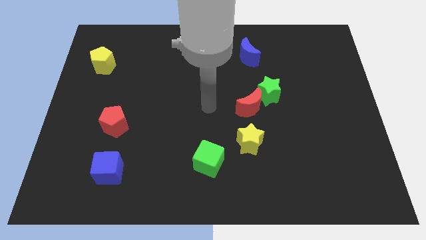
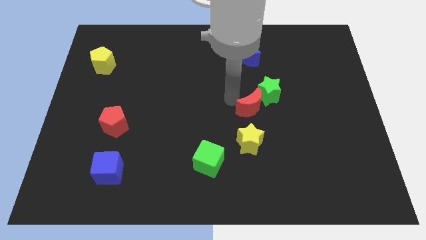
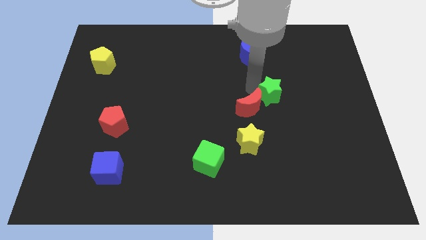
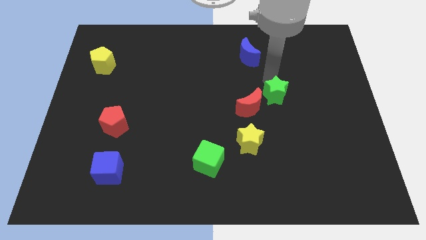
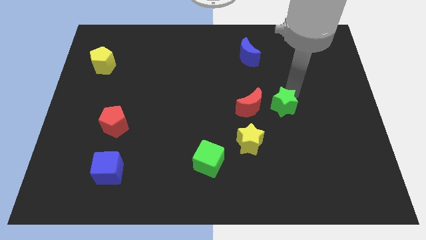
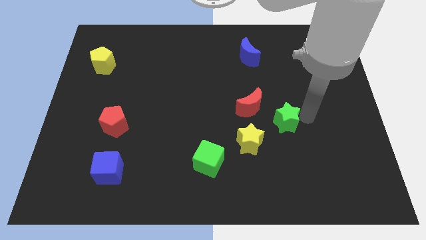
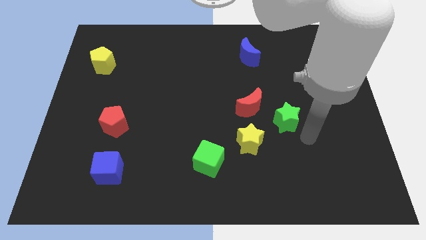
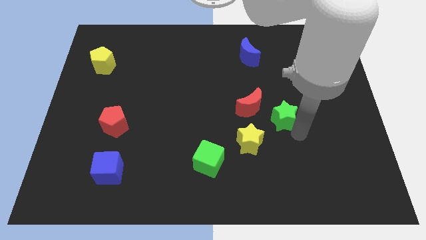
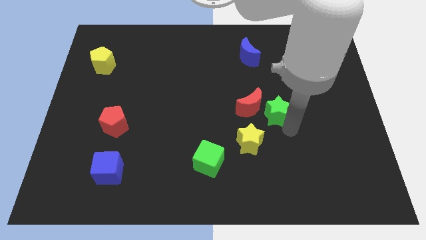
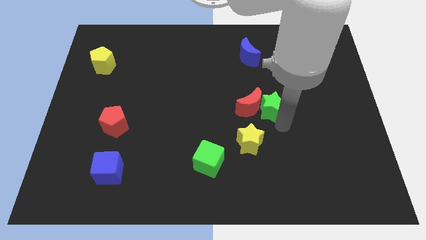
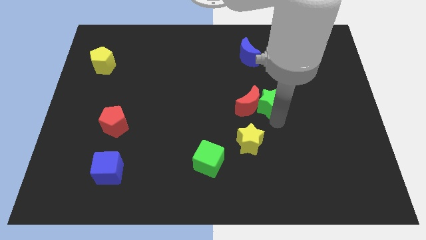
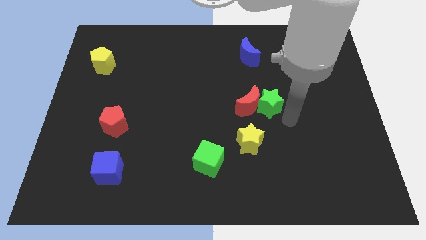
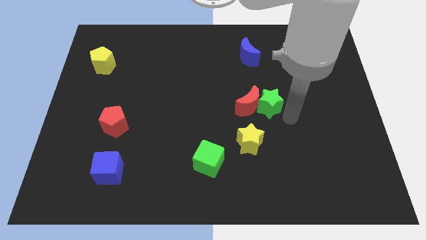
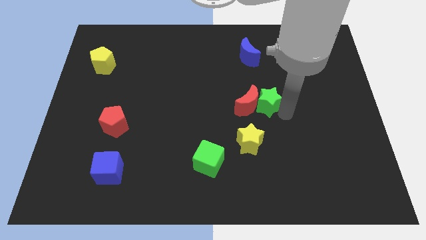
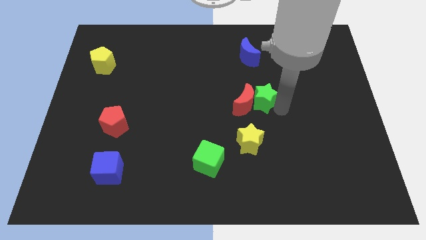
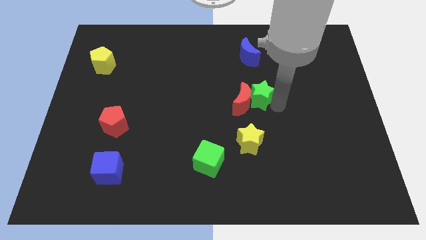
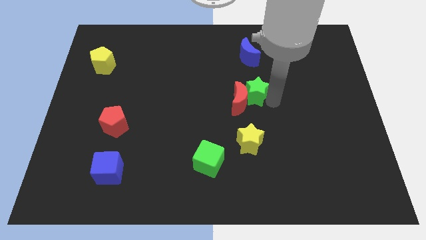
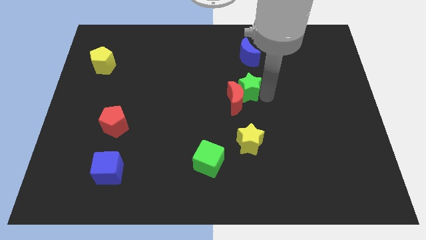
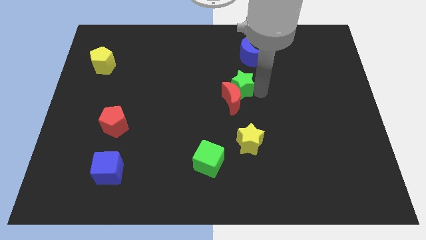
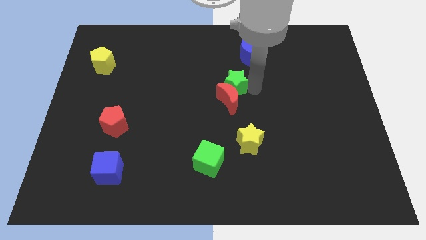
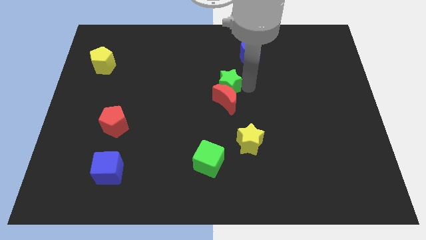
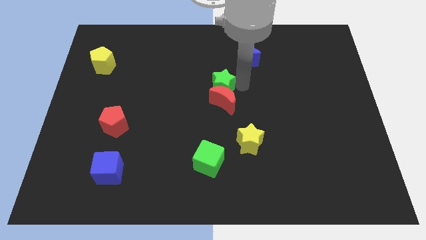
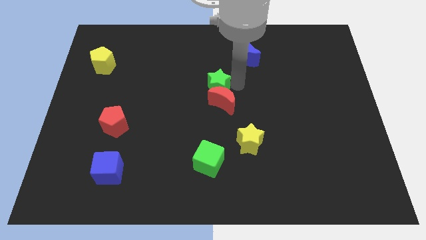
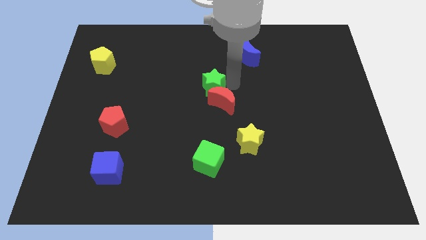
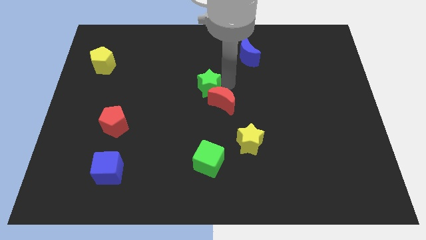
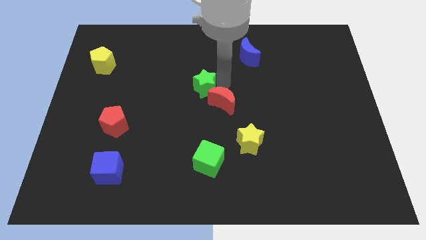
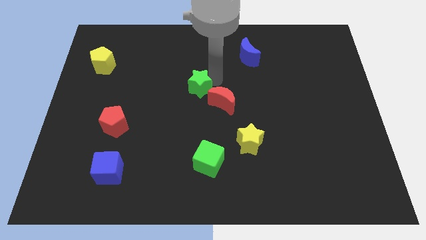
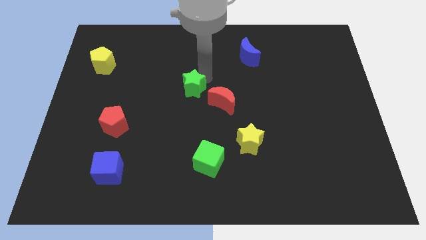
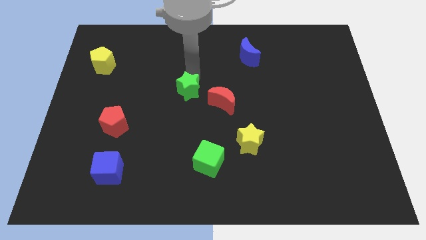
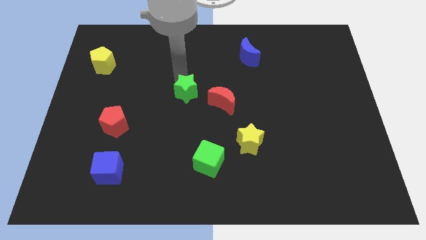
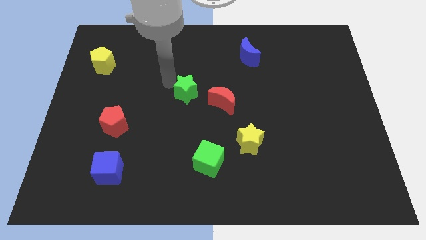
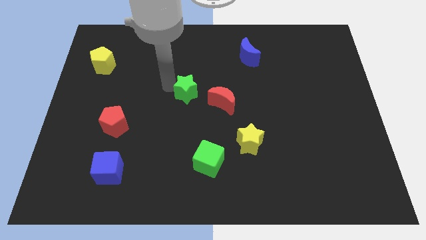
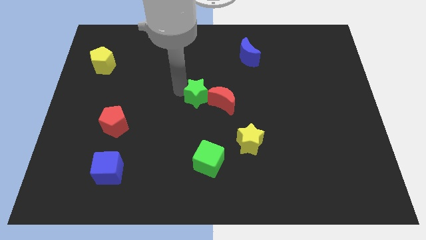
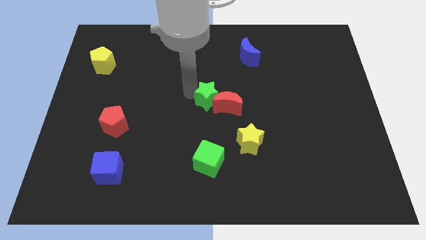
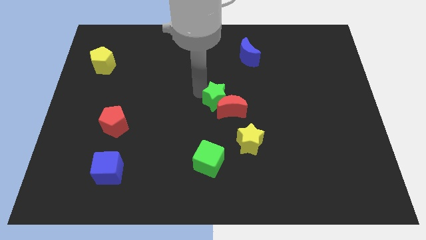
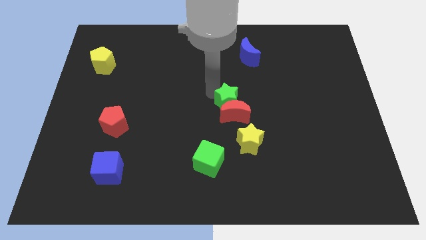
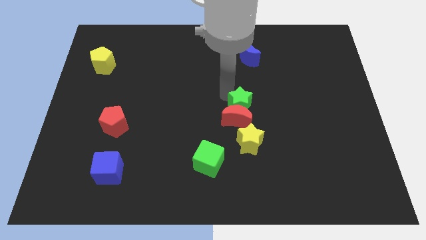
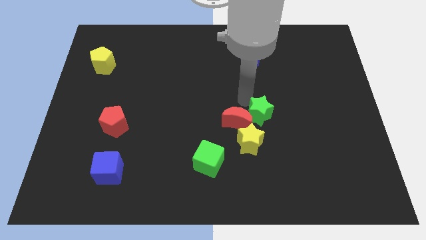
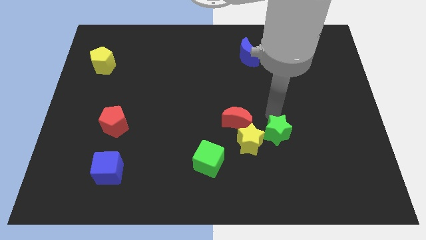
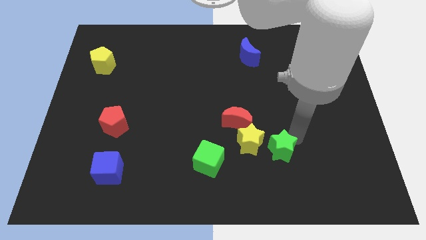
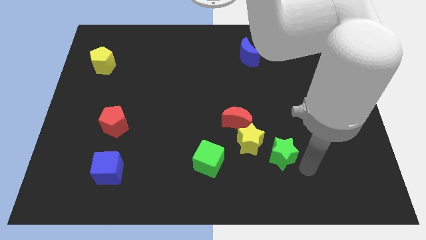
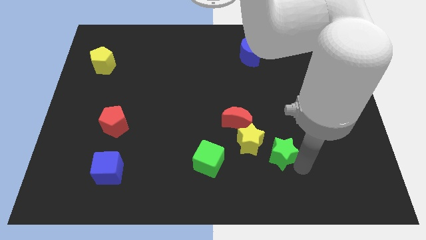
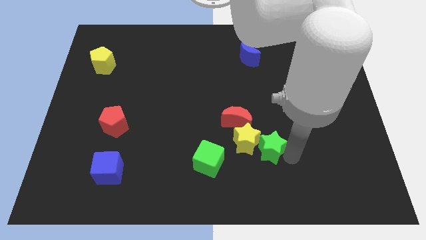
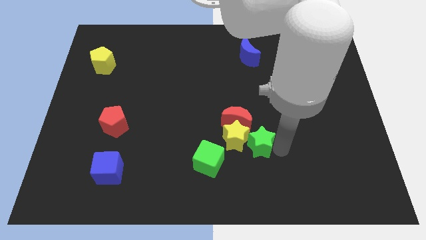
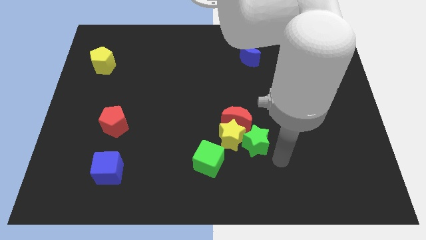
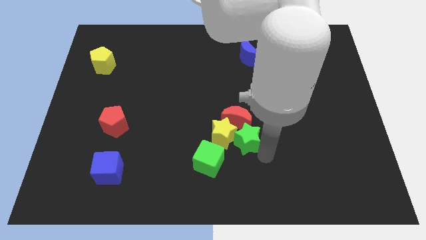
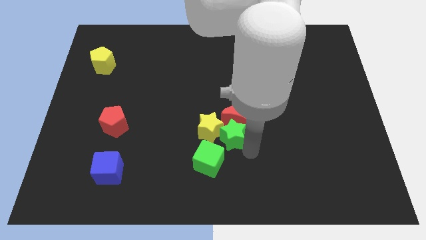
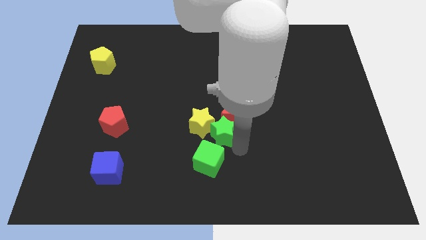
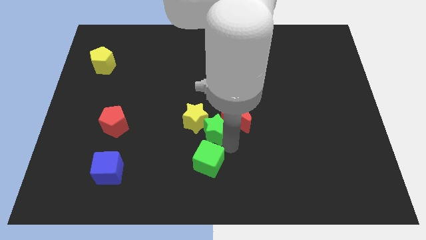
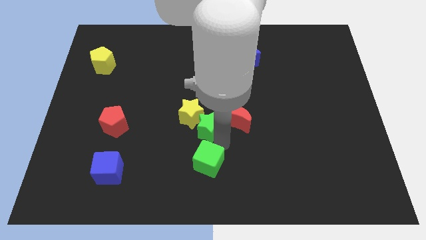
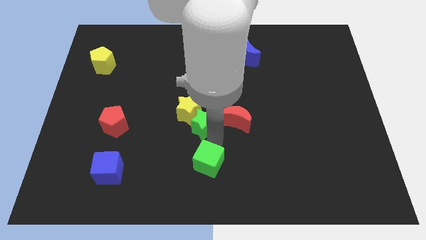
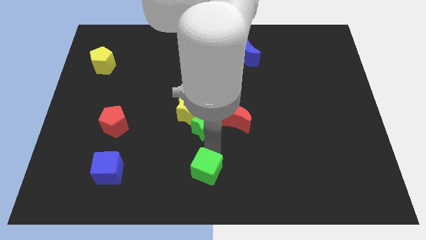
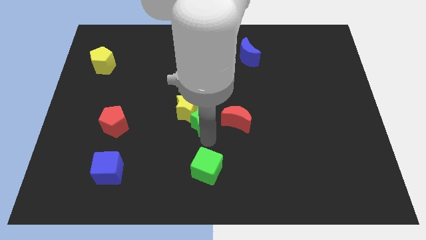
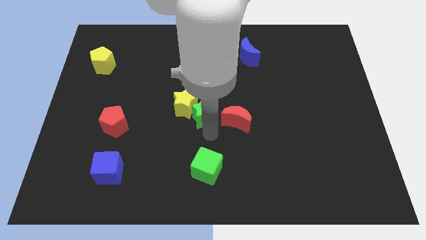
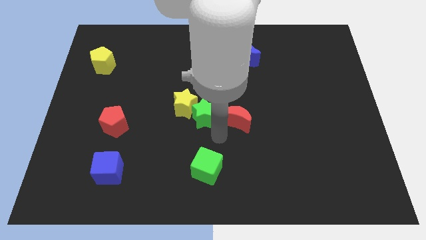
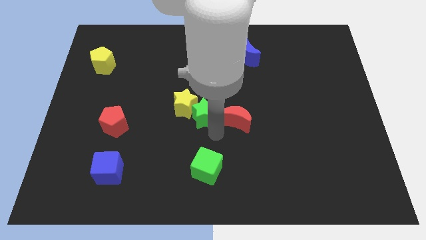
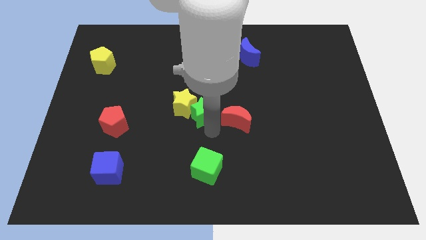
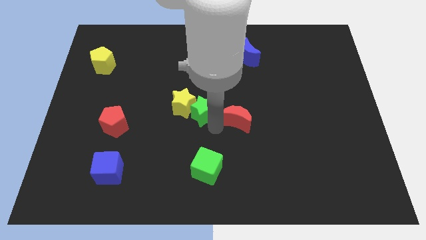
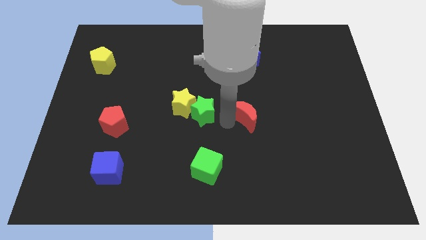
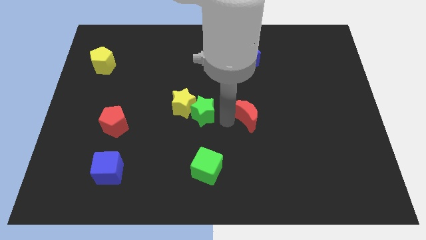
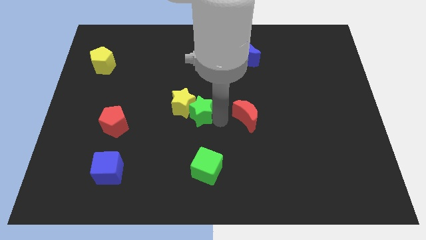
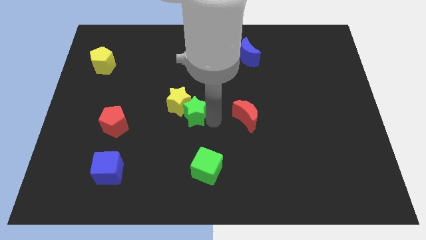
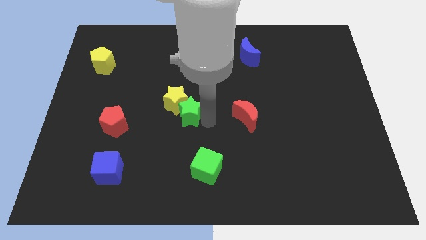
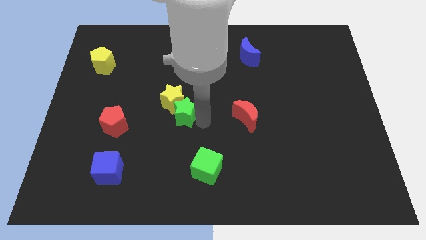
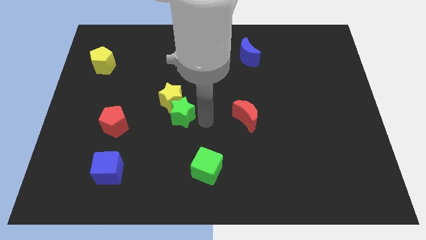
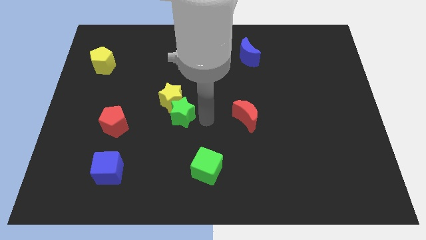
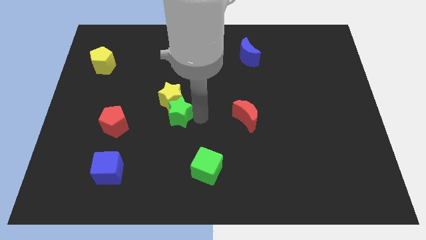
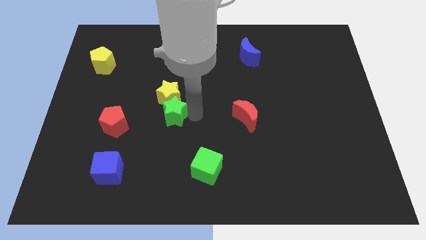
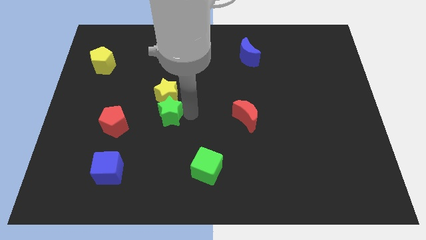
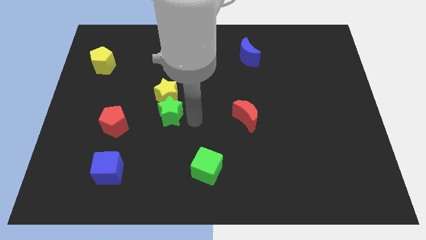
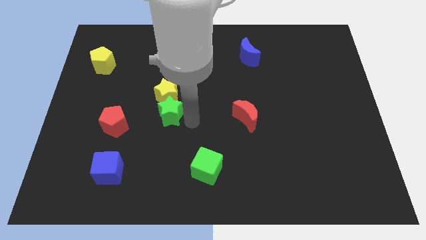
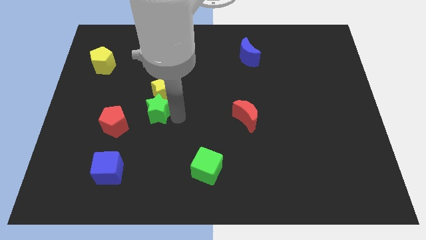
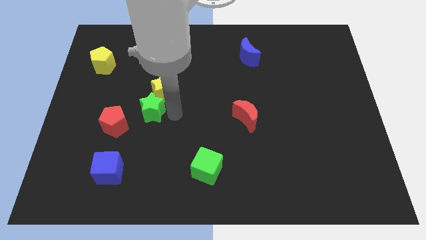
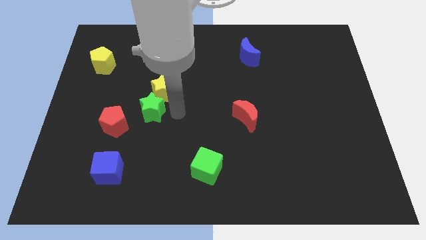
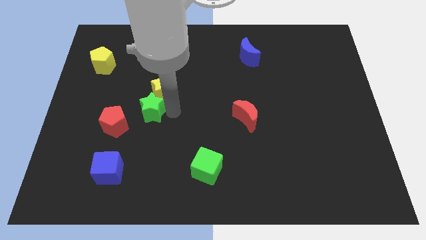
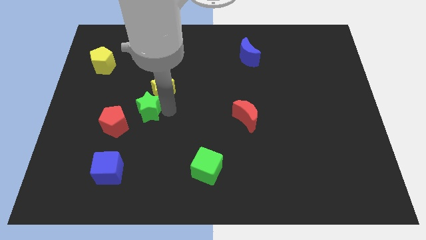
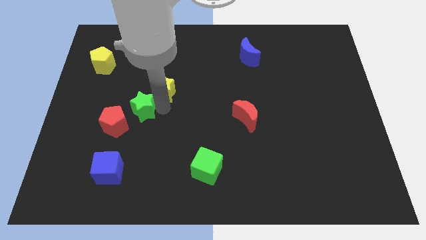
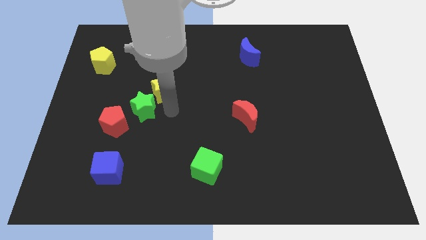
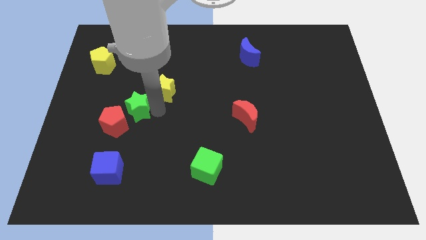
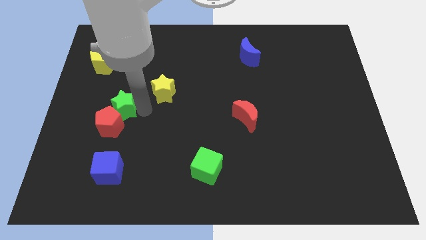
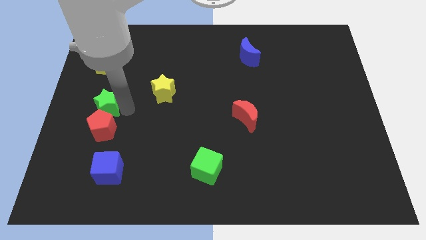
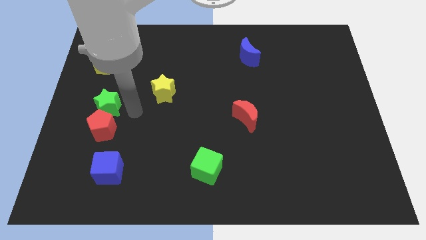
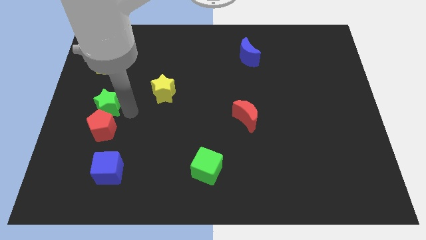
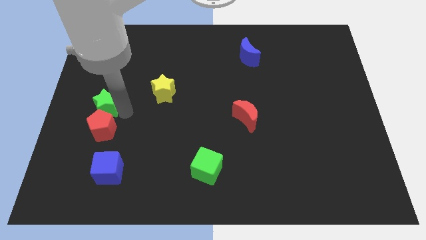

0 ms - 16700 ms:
move the green star to the left side
